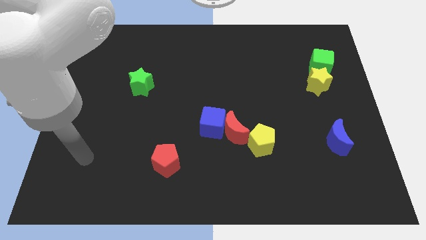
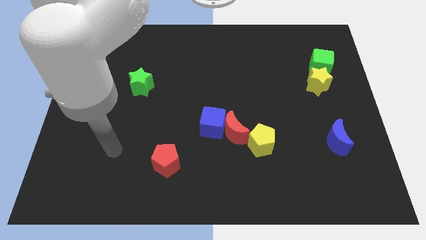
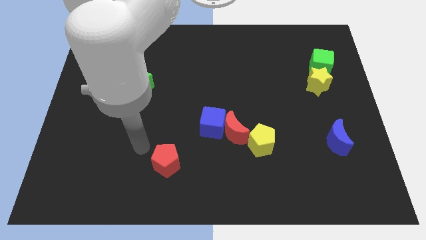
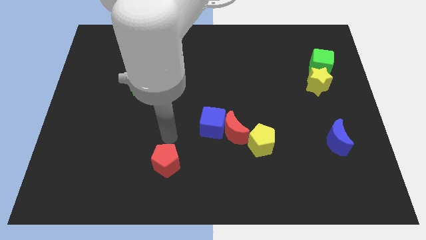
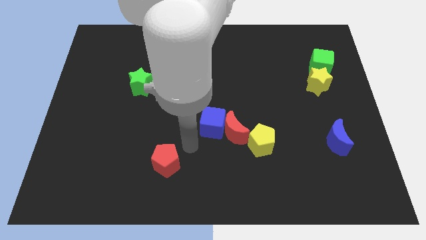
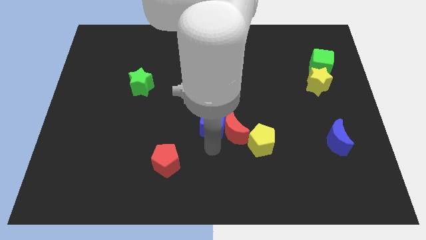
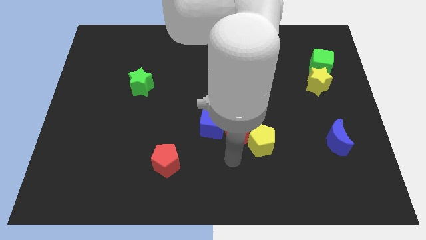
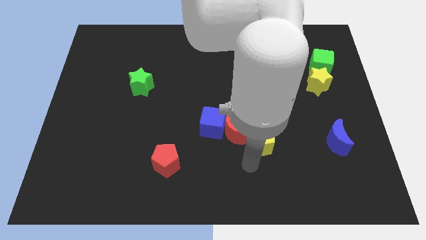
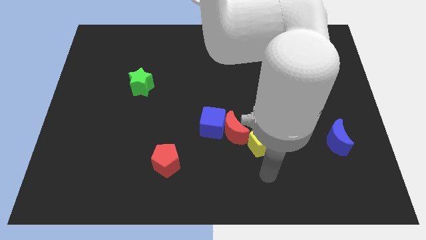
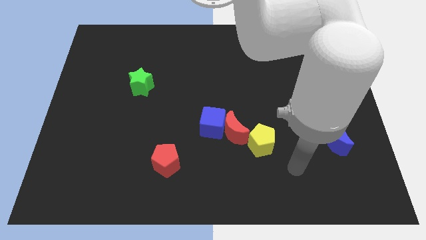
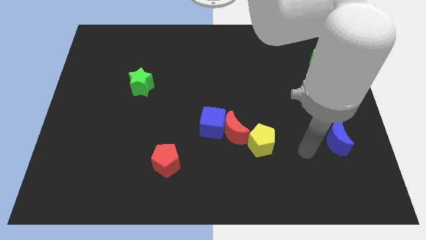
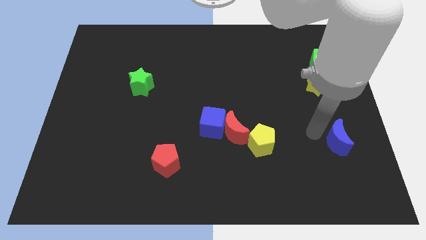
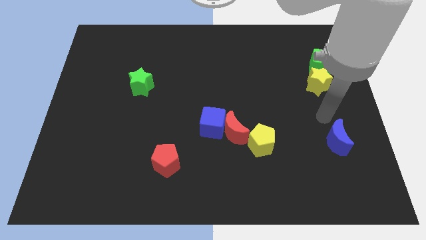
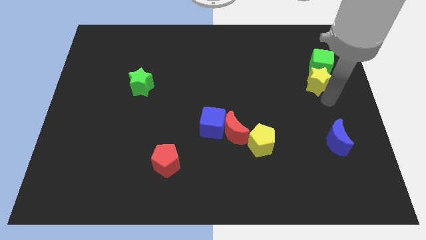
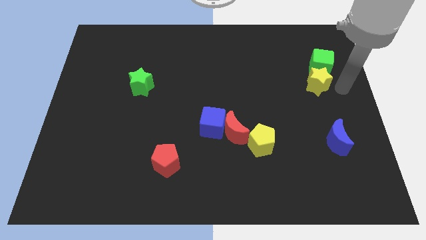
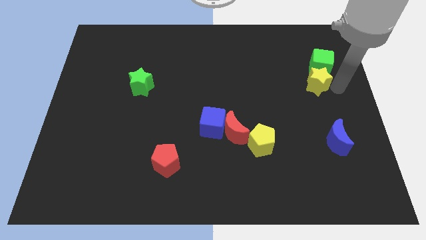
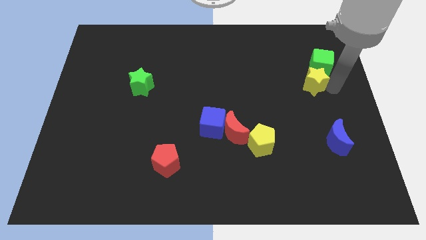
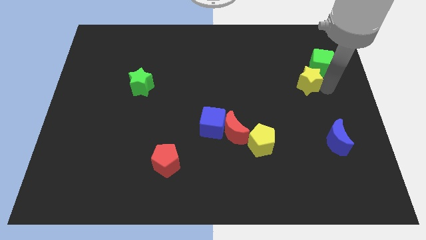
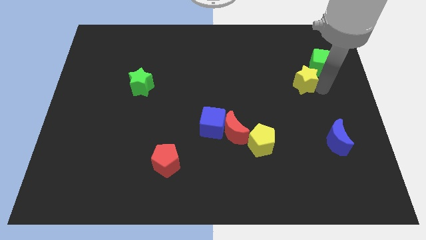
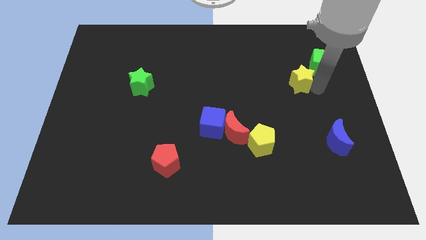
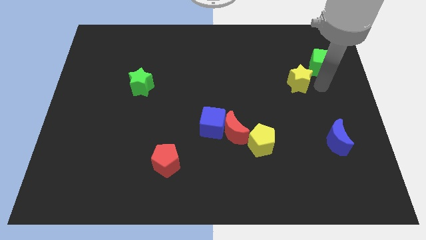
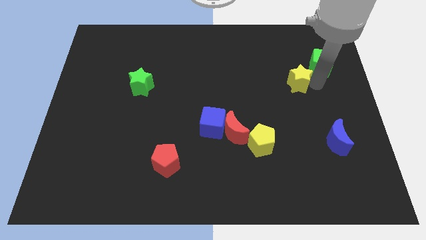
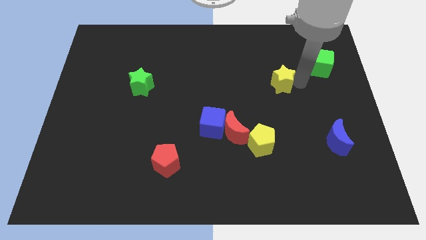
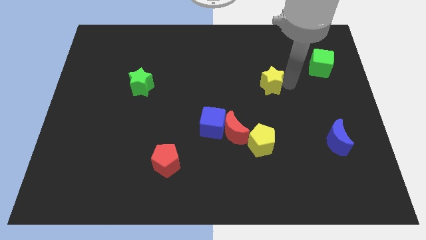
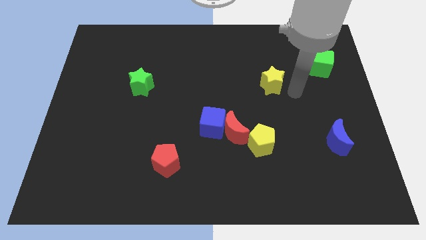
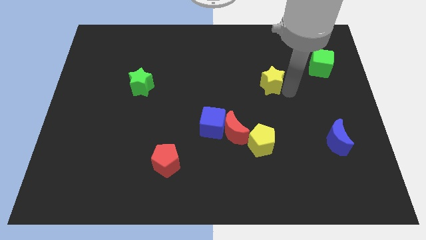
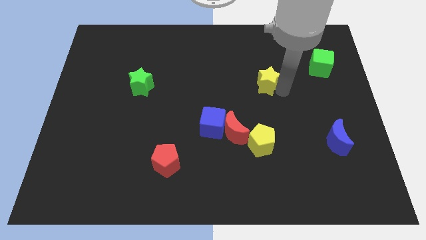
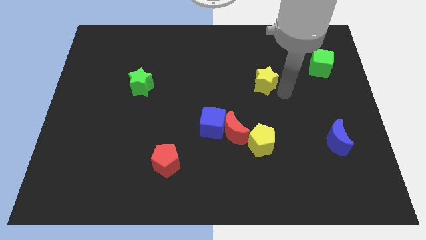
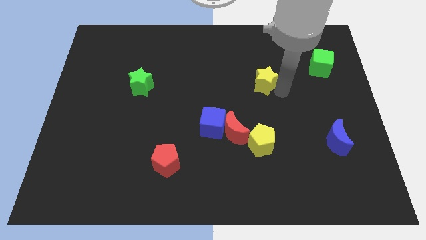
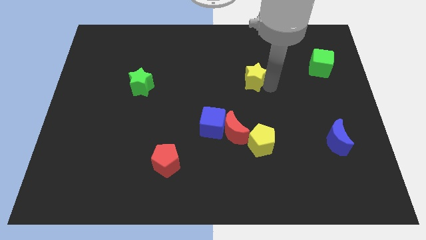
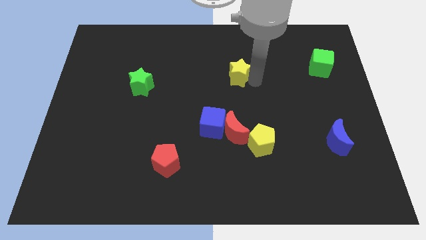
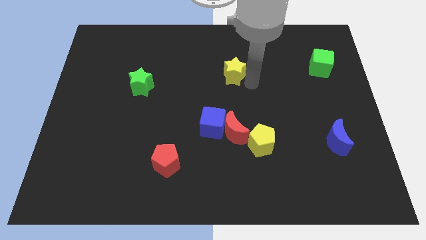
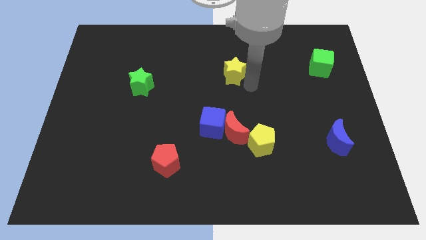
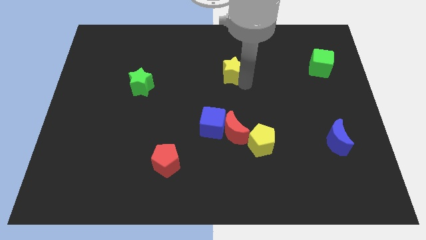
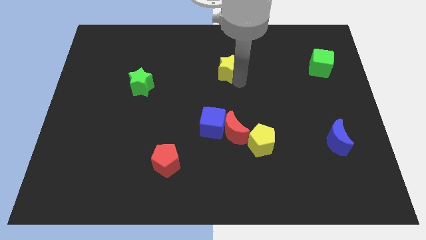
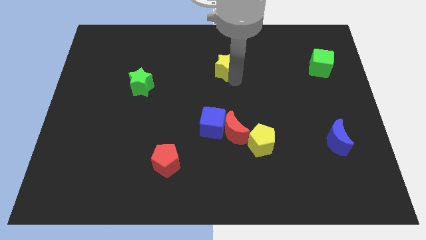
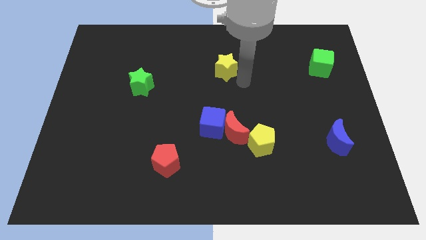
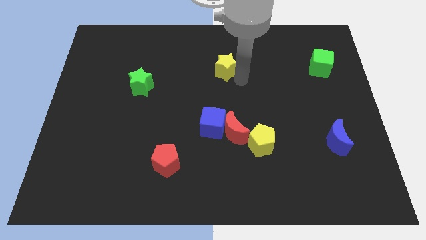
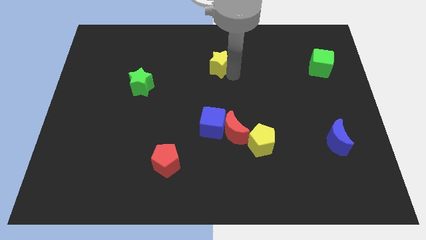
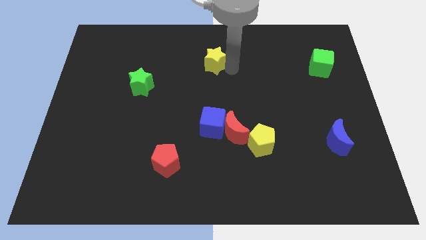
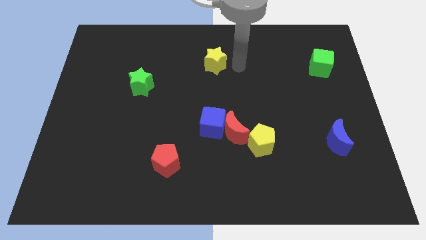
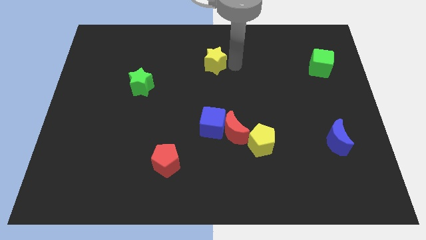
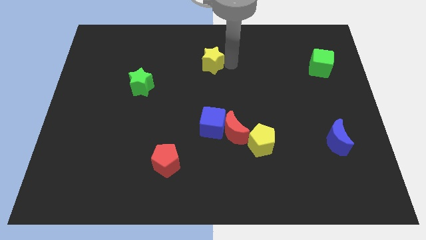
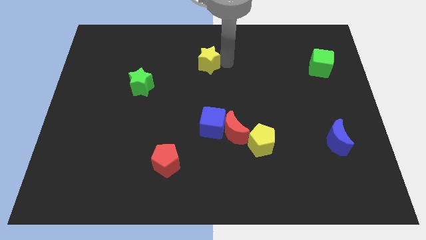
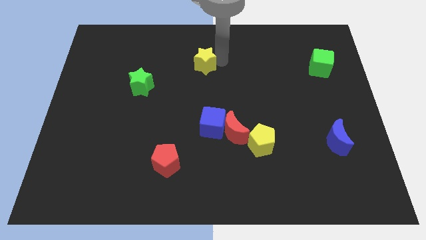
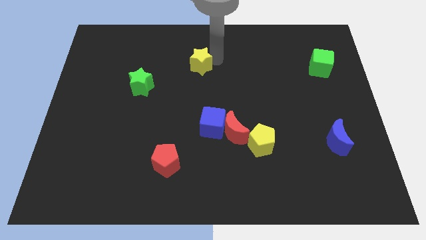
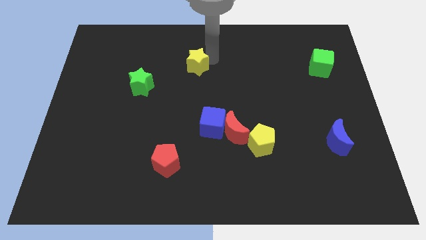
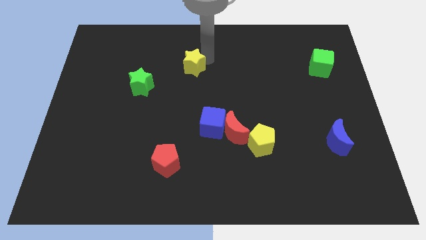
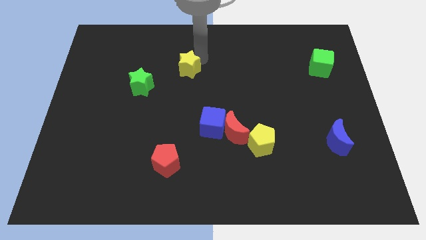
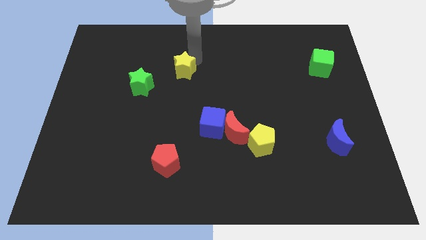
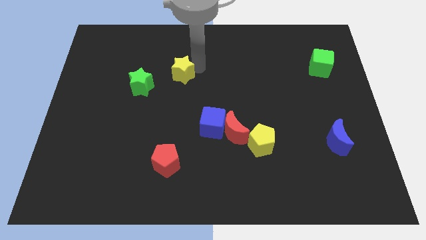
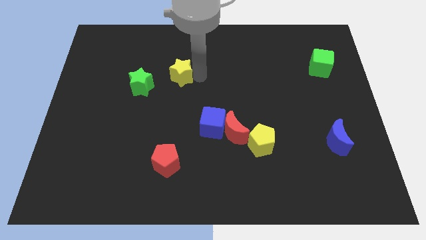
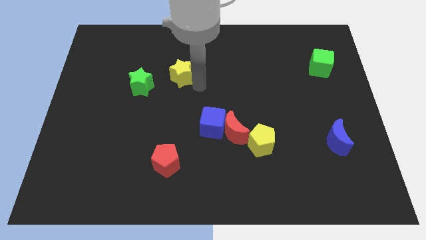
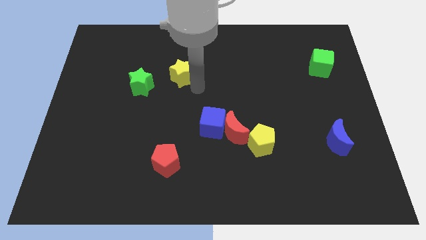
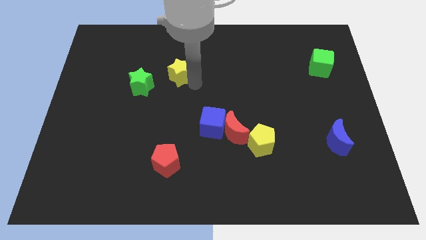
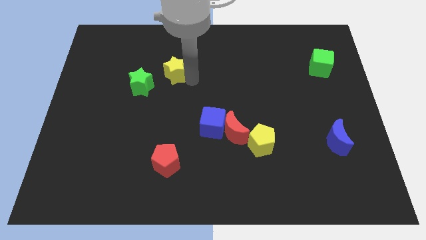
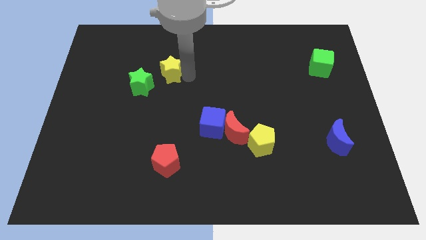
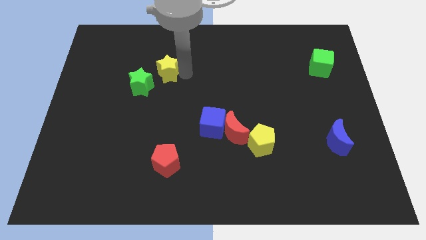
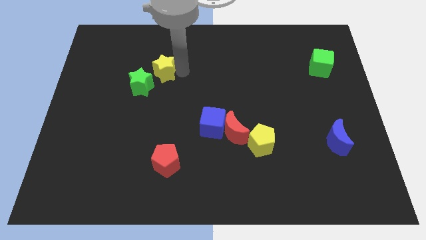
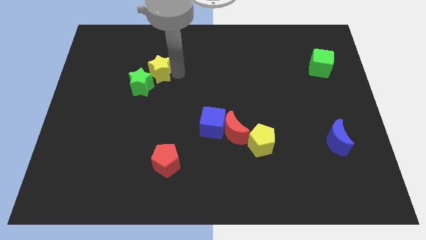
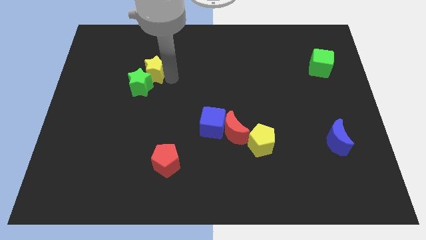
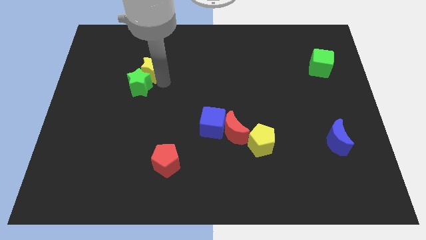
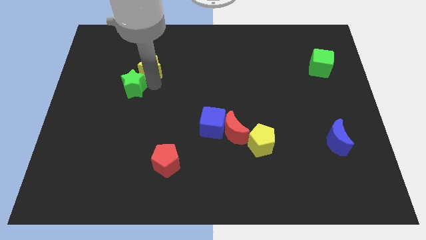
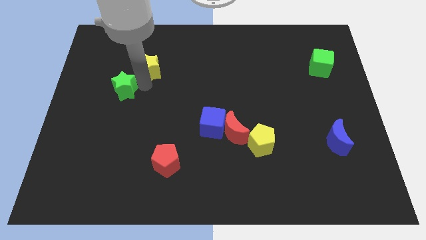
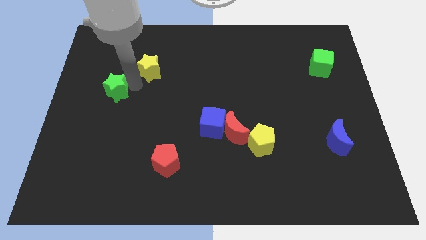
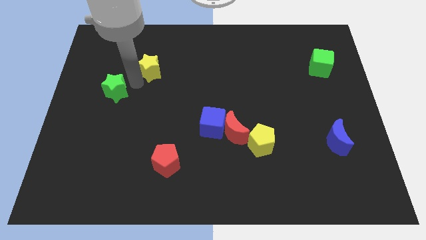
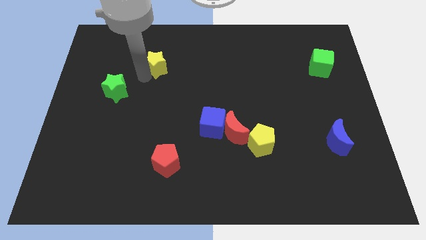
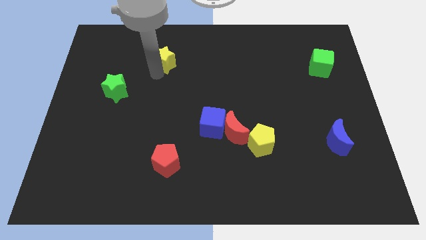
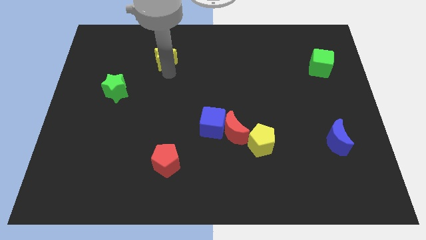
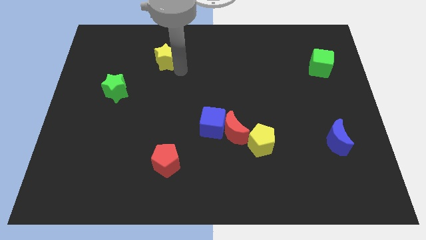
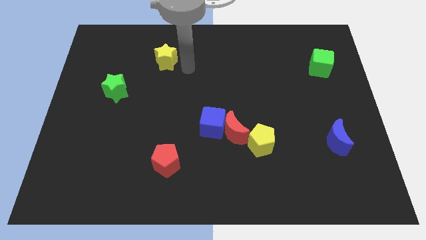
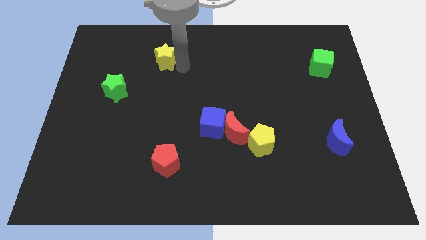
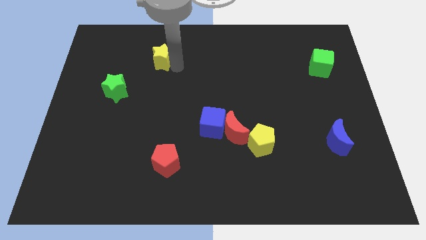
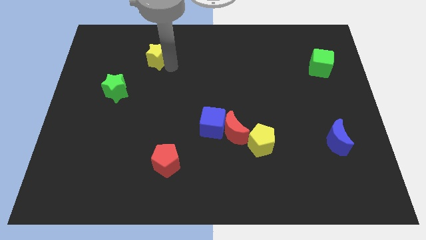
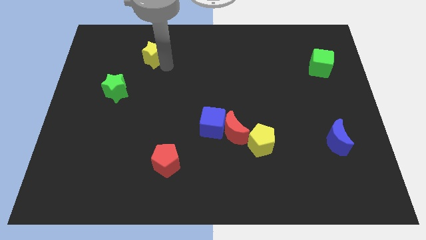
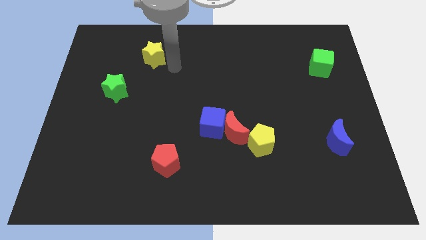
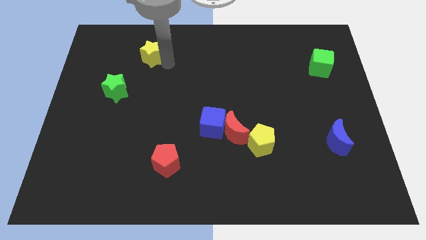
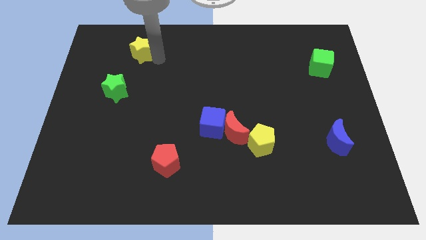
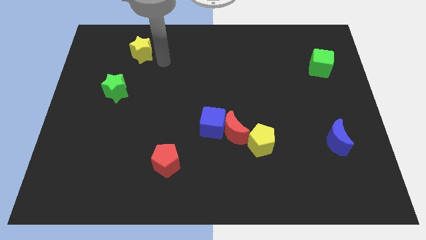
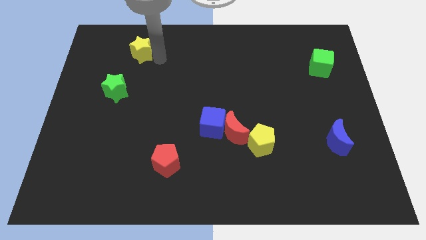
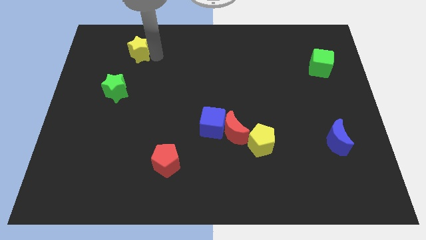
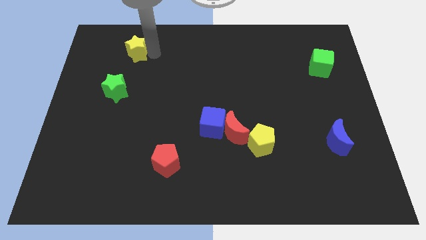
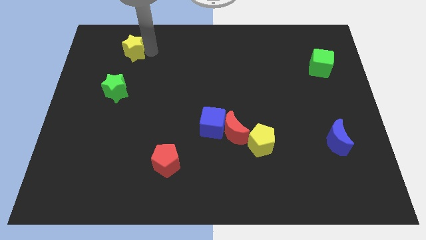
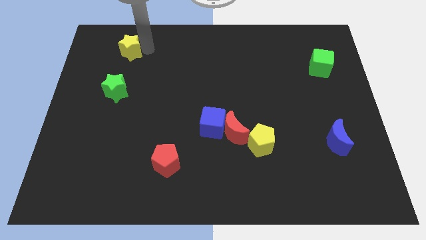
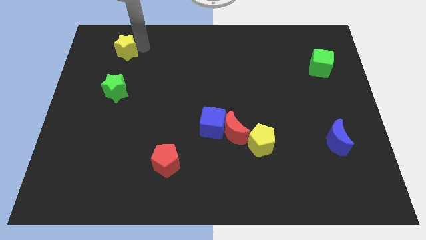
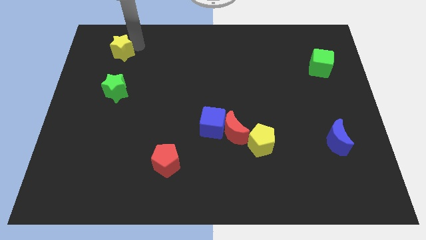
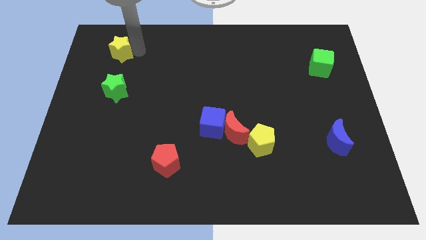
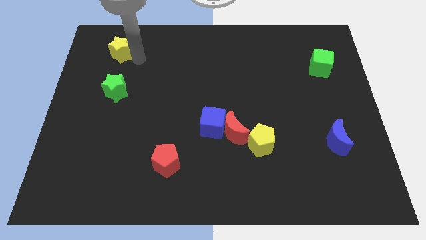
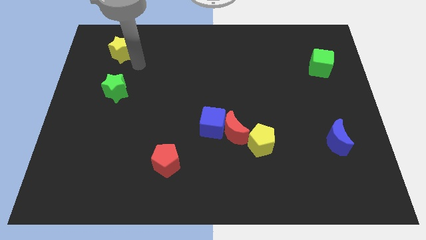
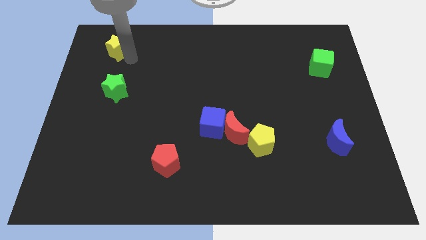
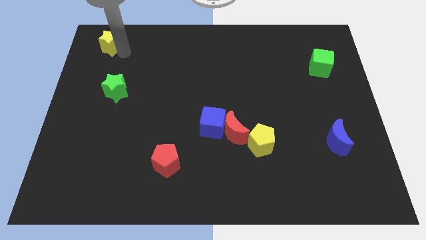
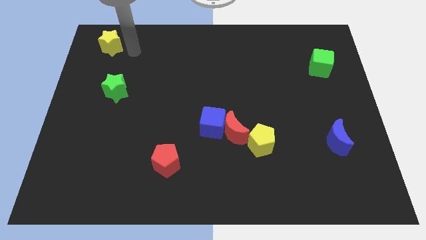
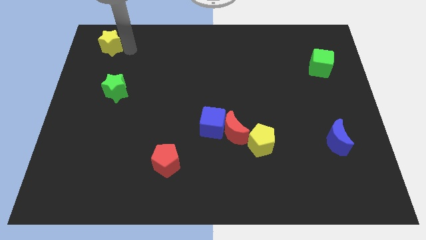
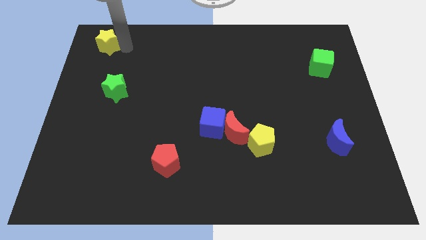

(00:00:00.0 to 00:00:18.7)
move the yellow star to the top left corner
